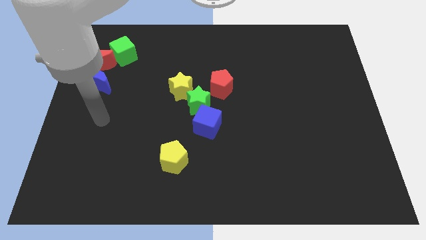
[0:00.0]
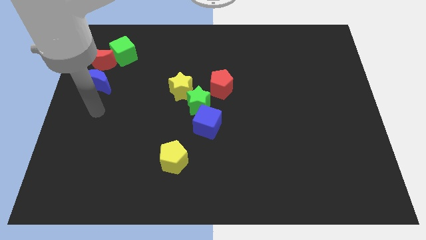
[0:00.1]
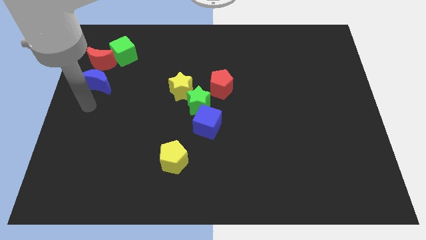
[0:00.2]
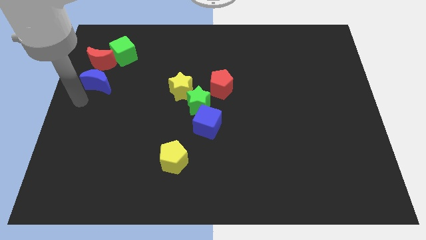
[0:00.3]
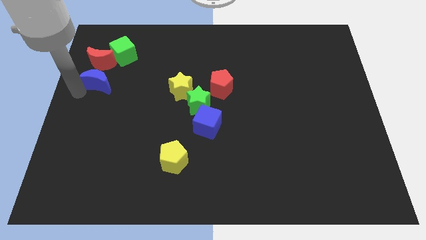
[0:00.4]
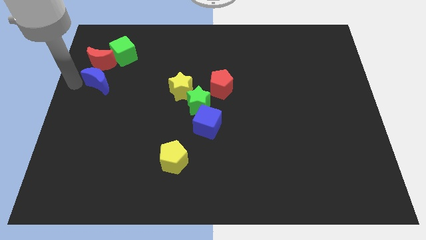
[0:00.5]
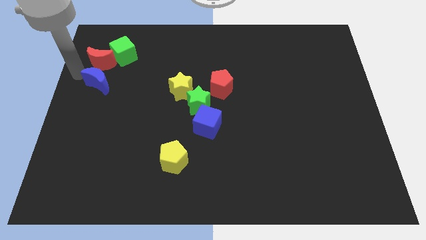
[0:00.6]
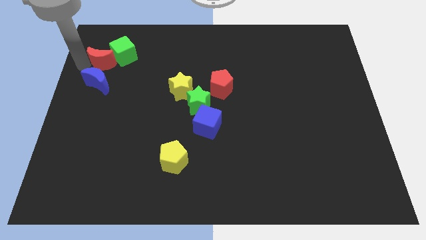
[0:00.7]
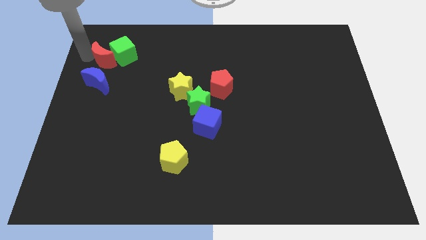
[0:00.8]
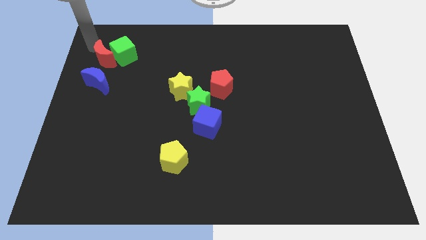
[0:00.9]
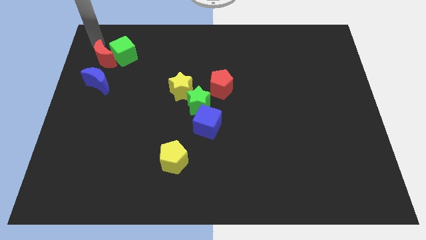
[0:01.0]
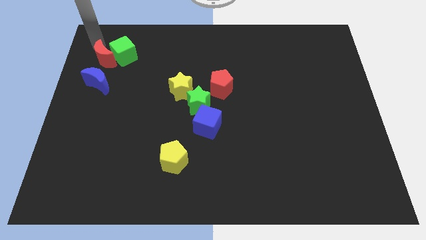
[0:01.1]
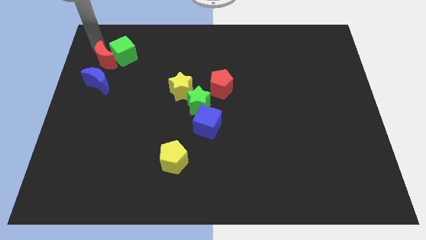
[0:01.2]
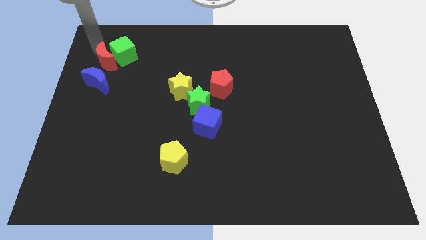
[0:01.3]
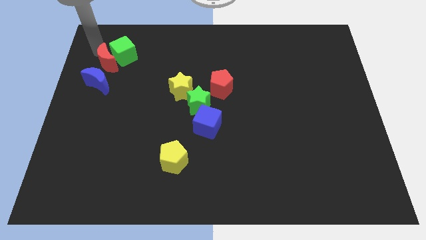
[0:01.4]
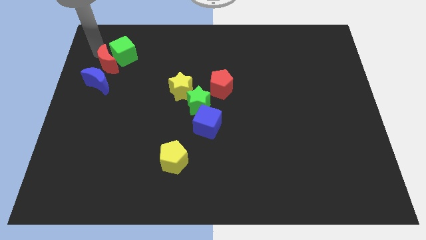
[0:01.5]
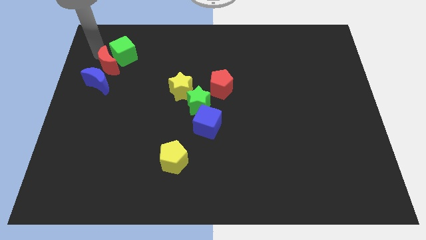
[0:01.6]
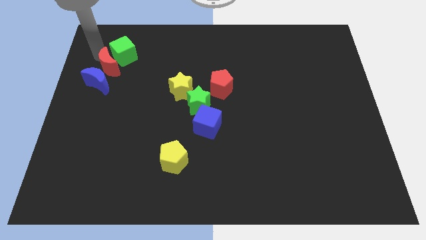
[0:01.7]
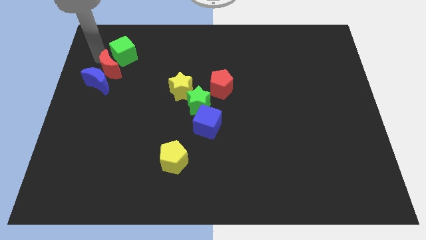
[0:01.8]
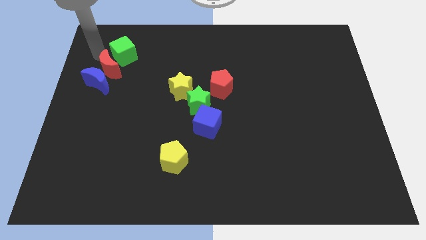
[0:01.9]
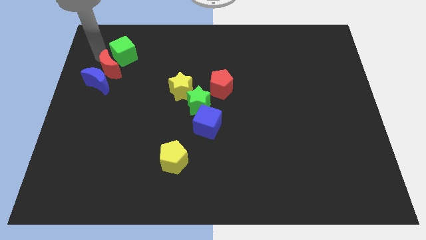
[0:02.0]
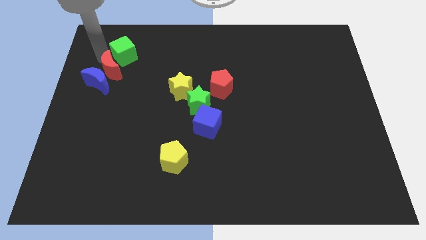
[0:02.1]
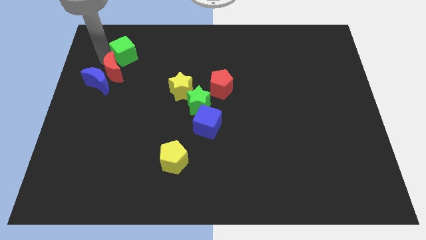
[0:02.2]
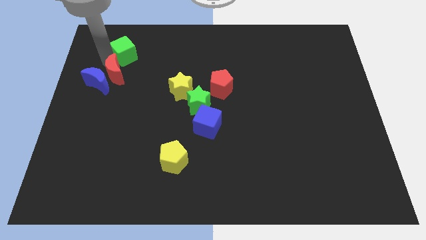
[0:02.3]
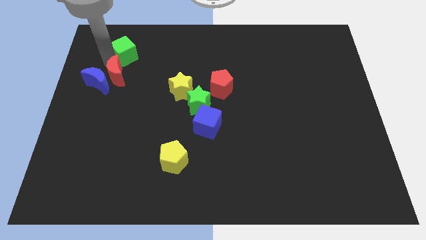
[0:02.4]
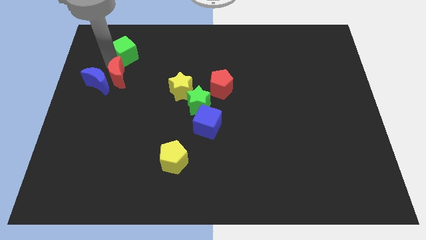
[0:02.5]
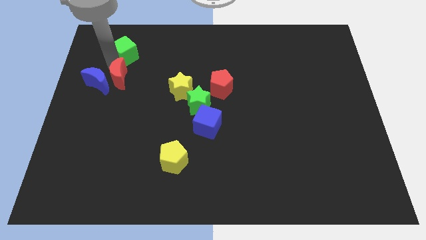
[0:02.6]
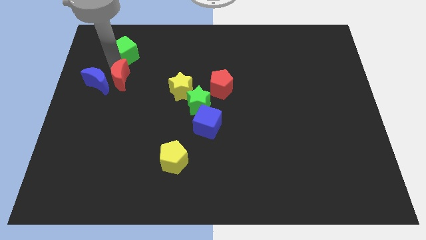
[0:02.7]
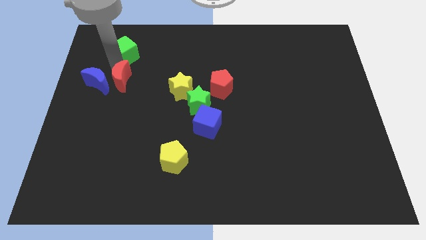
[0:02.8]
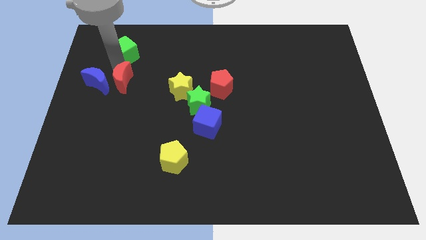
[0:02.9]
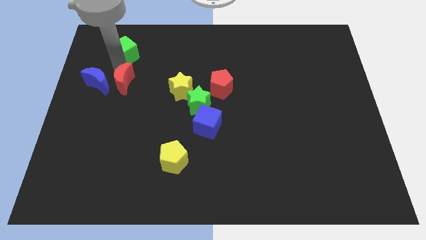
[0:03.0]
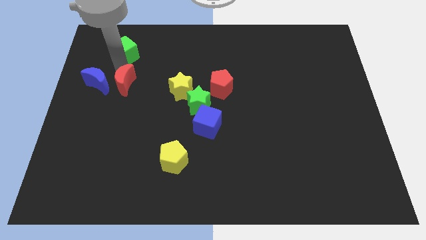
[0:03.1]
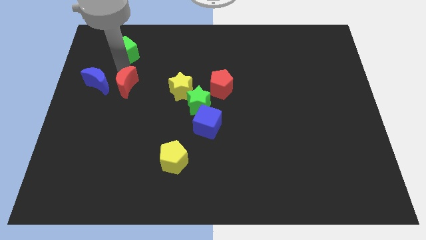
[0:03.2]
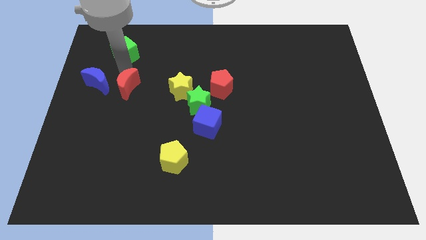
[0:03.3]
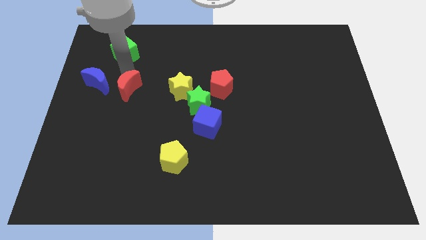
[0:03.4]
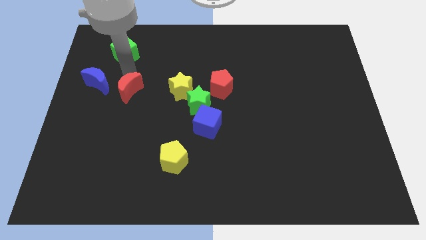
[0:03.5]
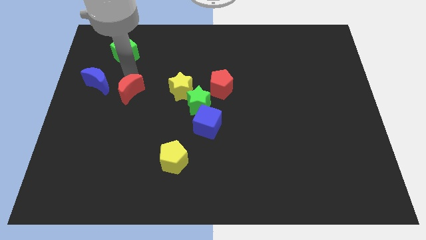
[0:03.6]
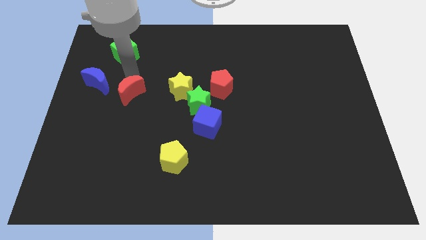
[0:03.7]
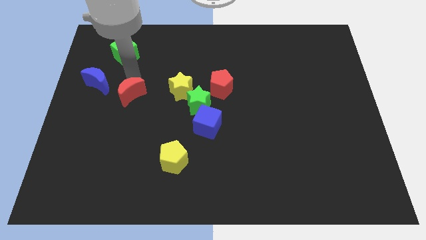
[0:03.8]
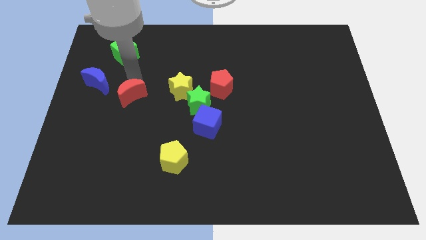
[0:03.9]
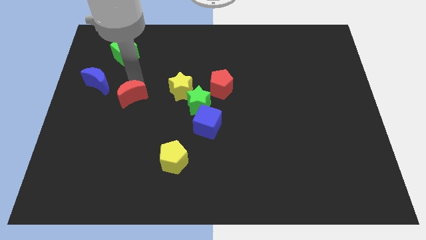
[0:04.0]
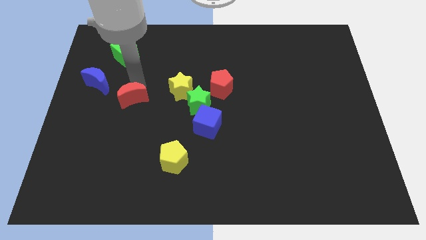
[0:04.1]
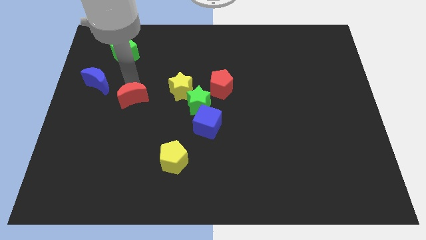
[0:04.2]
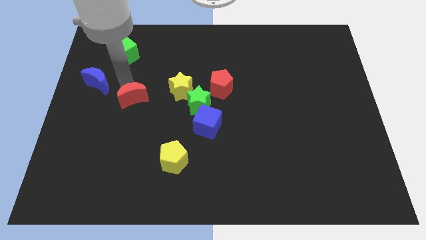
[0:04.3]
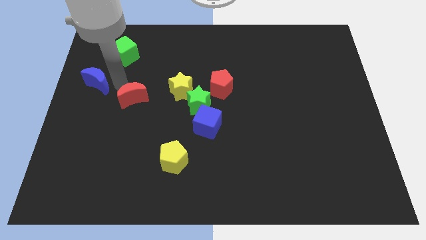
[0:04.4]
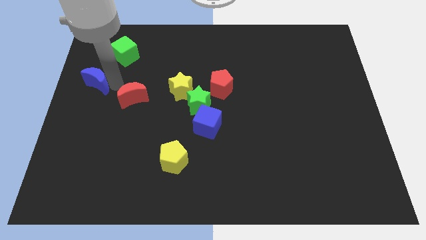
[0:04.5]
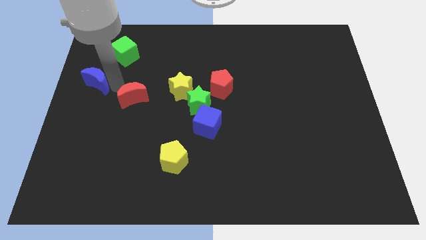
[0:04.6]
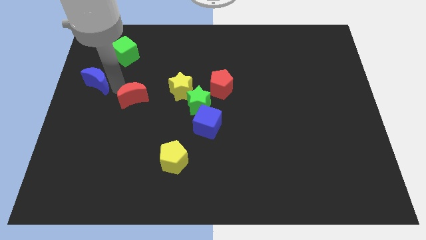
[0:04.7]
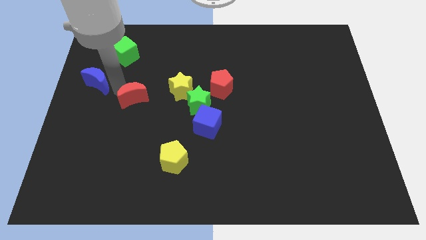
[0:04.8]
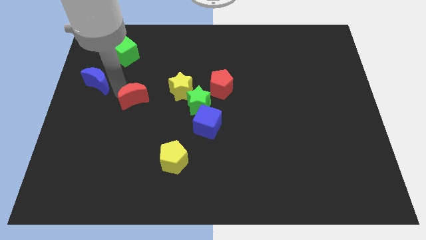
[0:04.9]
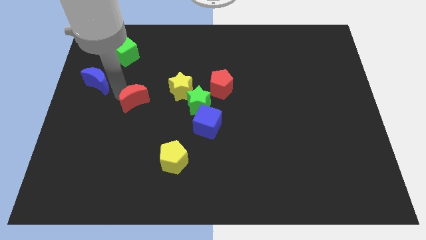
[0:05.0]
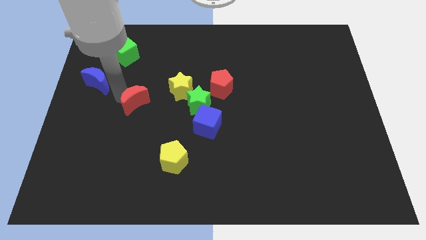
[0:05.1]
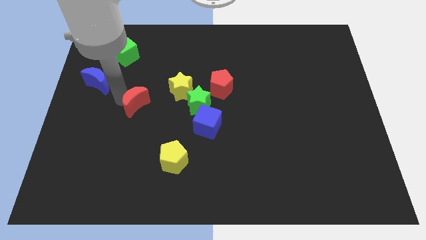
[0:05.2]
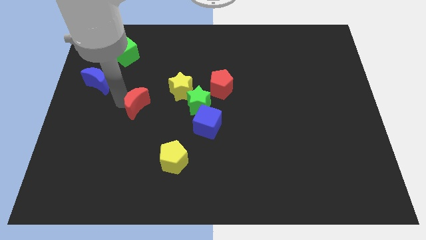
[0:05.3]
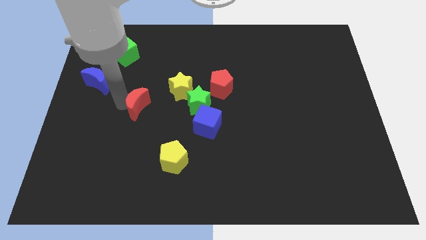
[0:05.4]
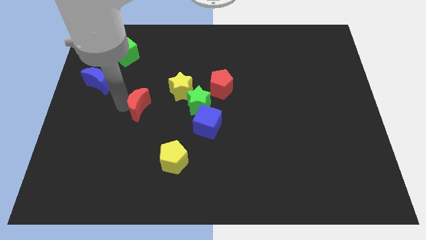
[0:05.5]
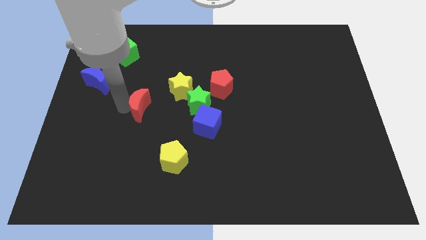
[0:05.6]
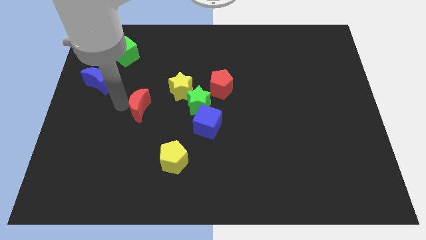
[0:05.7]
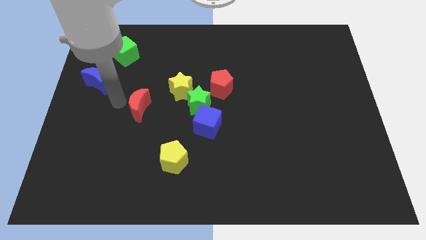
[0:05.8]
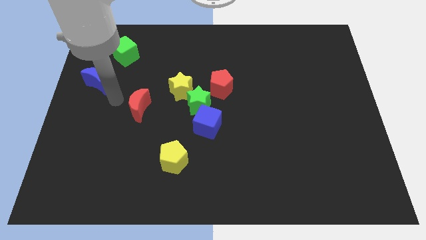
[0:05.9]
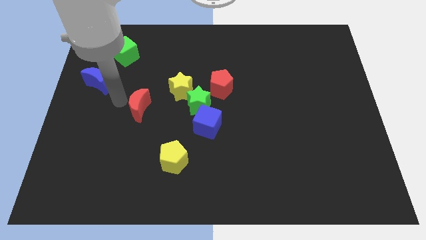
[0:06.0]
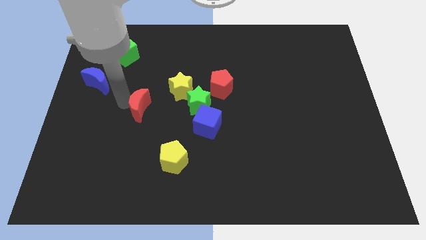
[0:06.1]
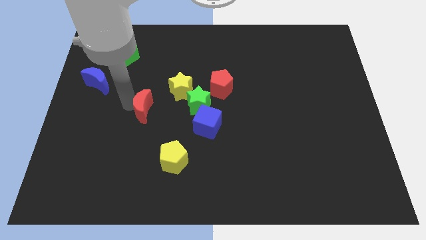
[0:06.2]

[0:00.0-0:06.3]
push the red moon downwards and right

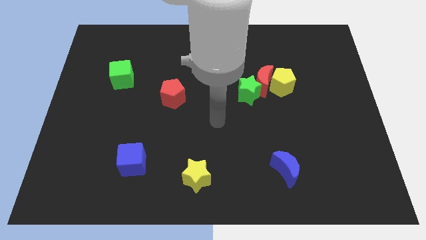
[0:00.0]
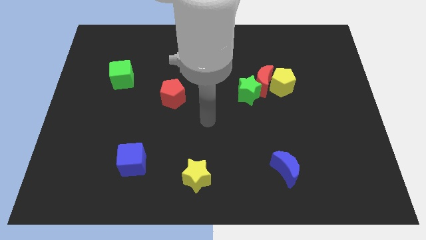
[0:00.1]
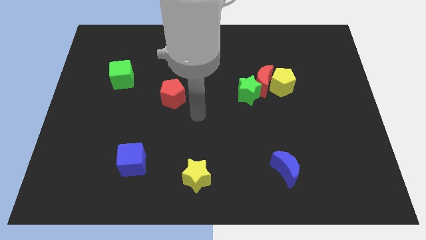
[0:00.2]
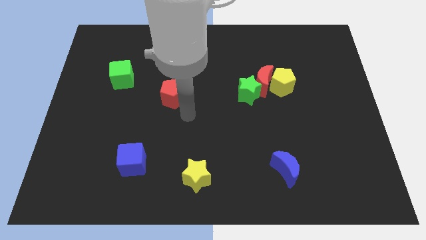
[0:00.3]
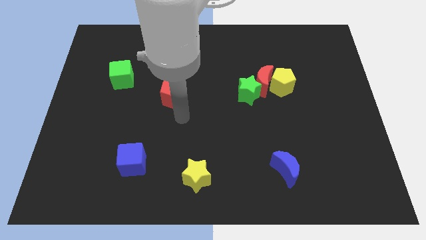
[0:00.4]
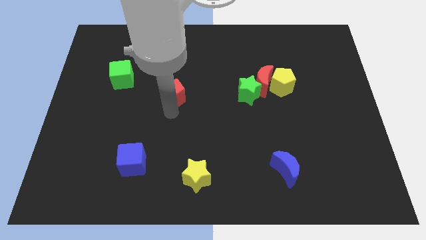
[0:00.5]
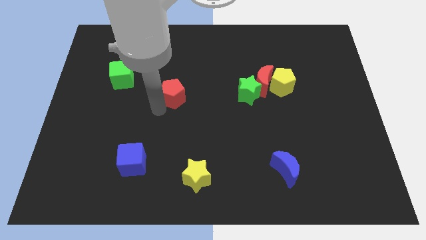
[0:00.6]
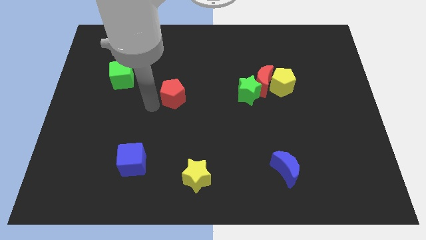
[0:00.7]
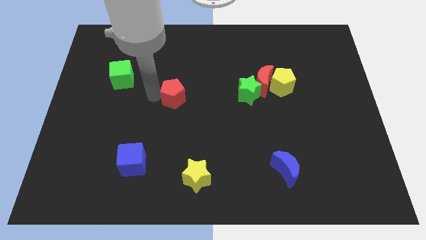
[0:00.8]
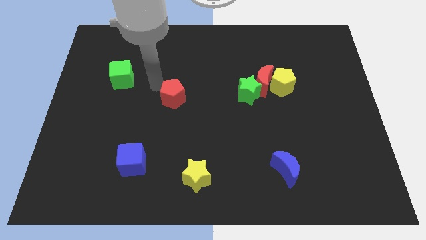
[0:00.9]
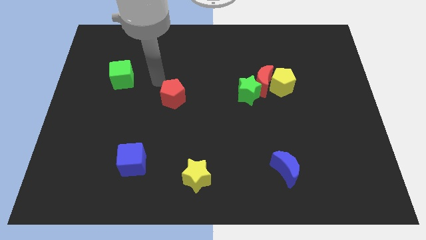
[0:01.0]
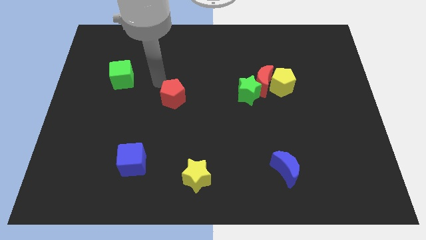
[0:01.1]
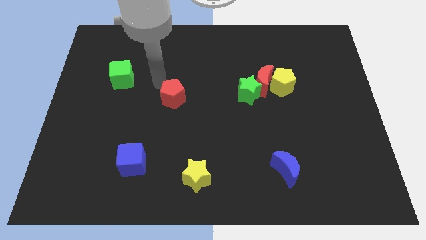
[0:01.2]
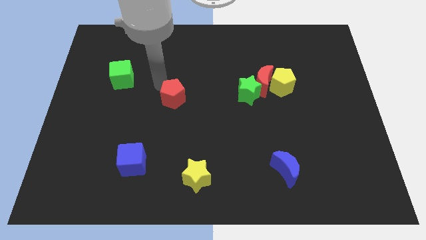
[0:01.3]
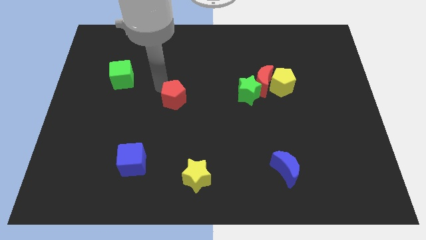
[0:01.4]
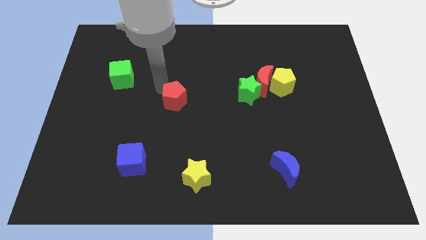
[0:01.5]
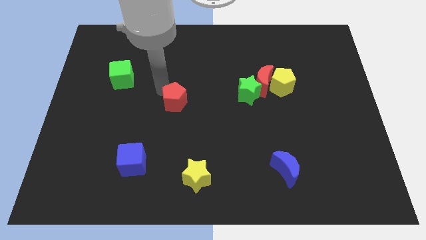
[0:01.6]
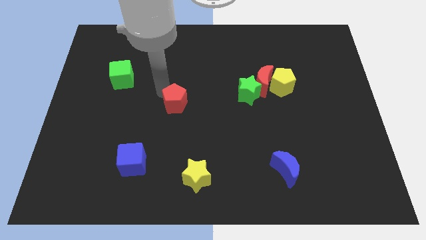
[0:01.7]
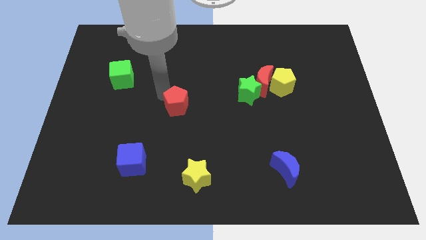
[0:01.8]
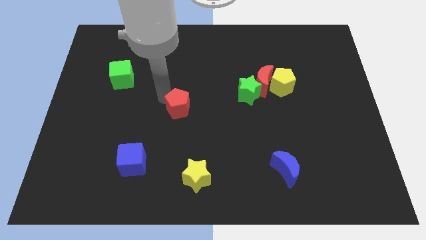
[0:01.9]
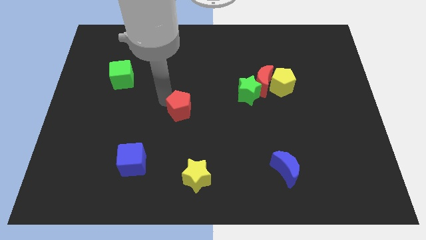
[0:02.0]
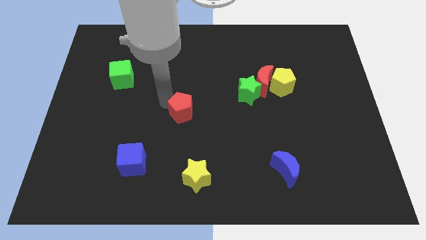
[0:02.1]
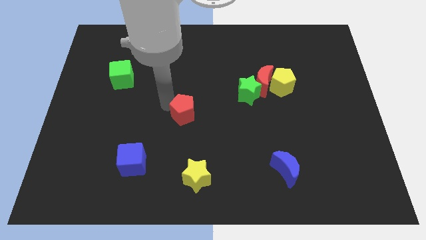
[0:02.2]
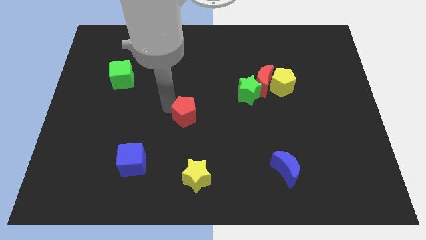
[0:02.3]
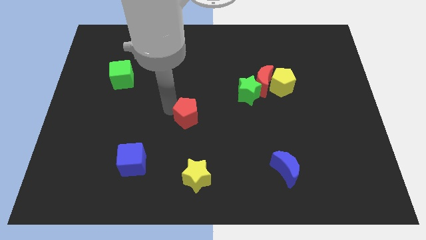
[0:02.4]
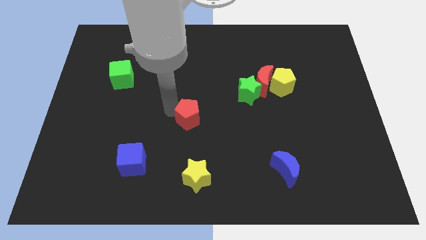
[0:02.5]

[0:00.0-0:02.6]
move the red pentagon a bit down and to the right
